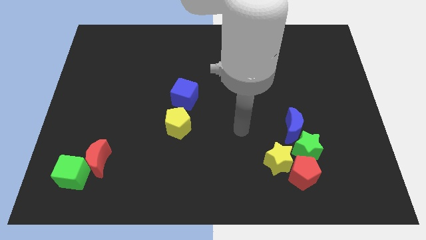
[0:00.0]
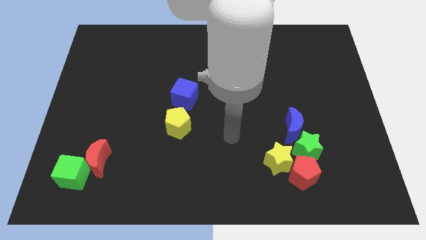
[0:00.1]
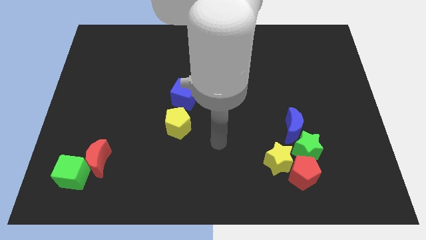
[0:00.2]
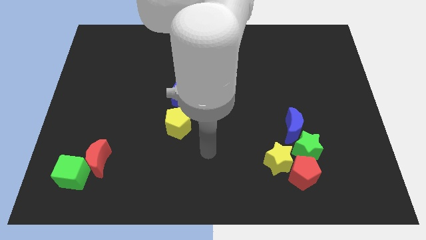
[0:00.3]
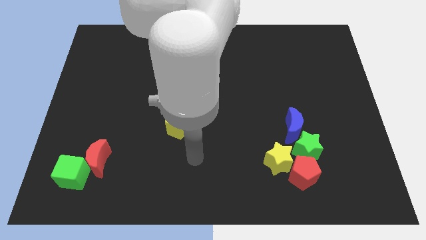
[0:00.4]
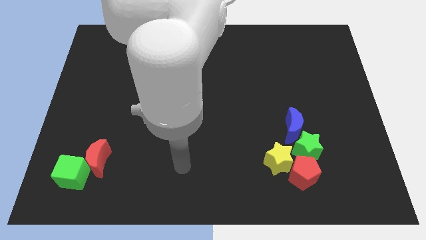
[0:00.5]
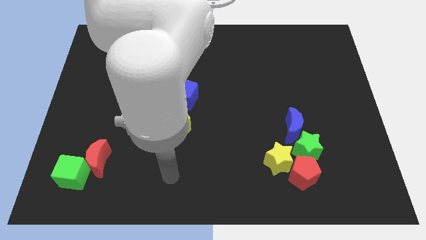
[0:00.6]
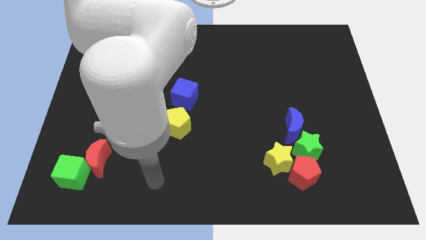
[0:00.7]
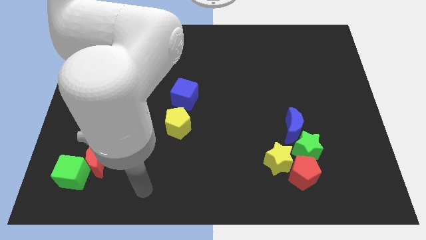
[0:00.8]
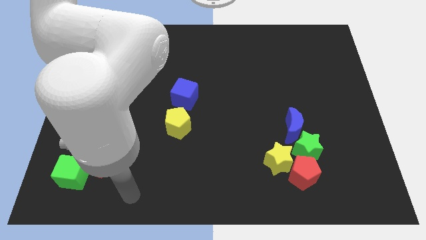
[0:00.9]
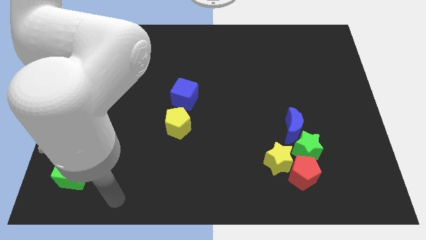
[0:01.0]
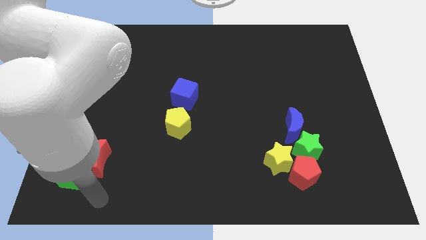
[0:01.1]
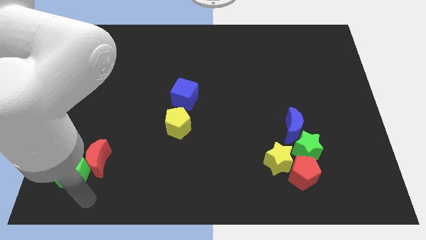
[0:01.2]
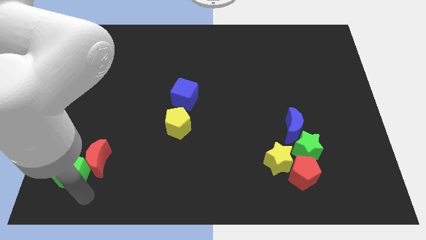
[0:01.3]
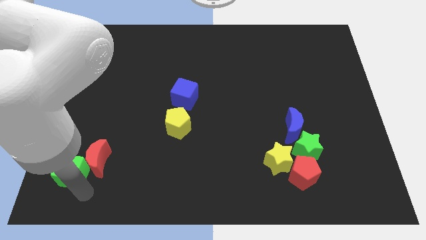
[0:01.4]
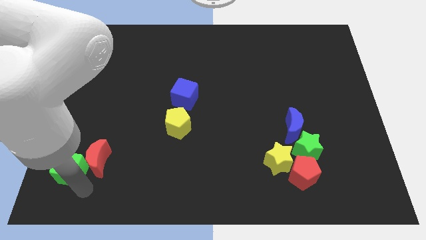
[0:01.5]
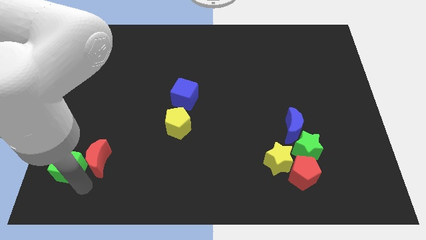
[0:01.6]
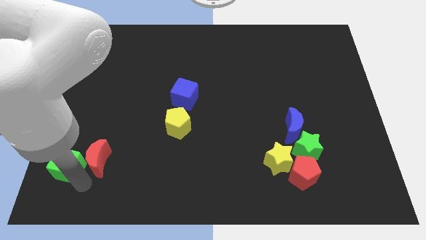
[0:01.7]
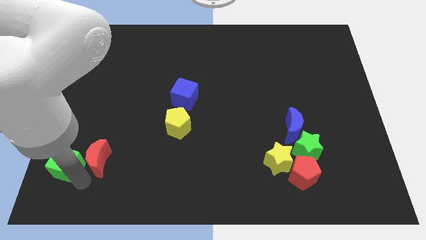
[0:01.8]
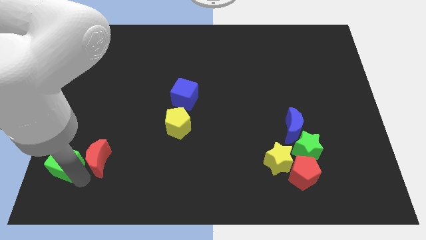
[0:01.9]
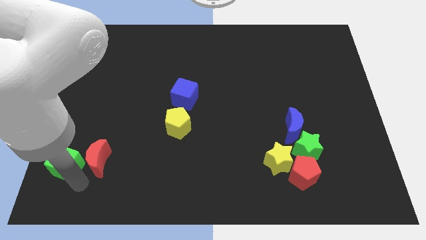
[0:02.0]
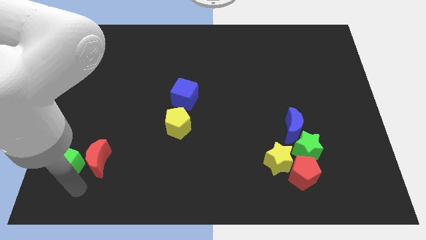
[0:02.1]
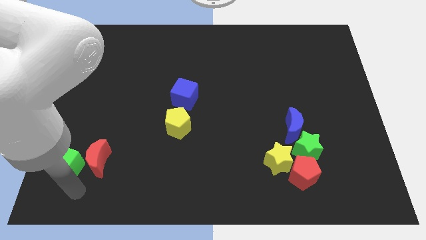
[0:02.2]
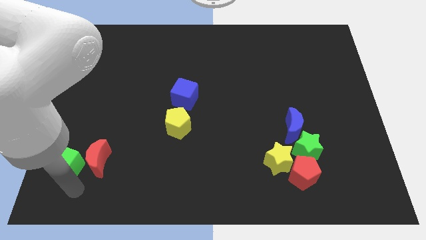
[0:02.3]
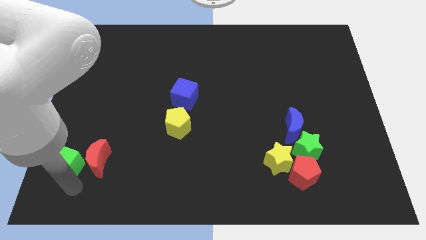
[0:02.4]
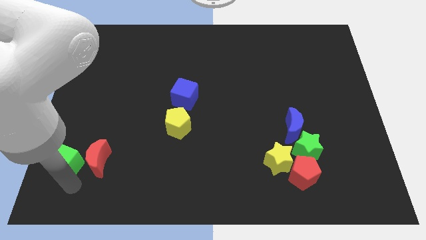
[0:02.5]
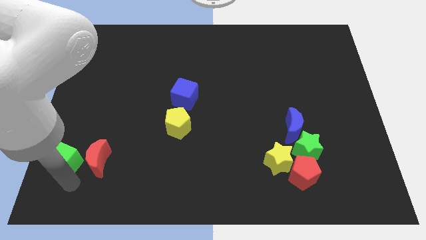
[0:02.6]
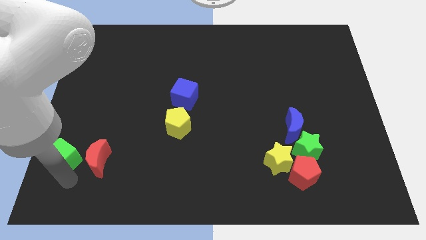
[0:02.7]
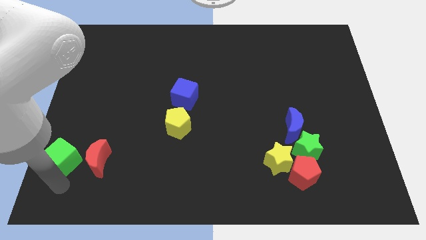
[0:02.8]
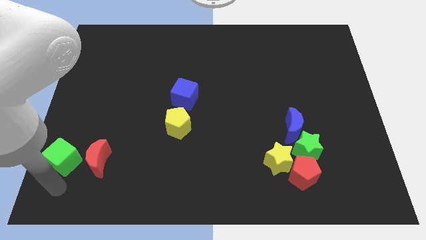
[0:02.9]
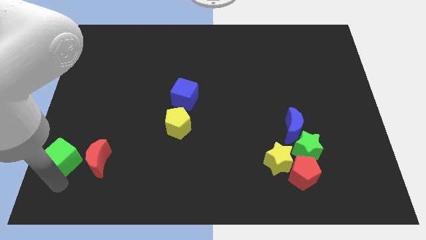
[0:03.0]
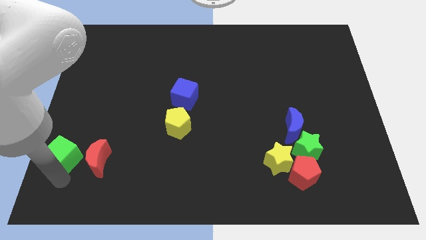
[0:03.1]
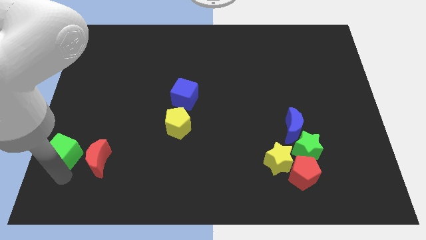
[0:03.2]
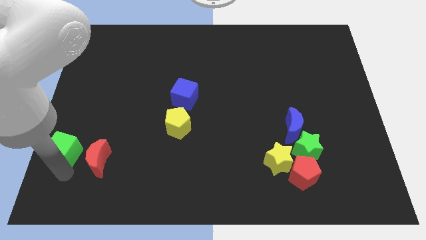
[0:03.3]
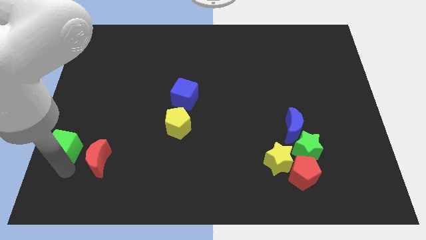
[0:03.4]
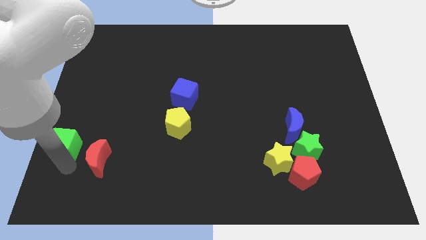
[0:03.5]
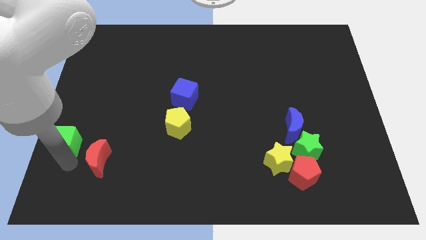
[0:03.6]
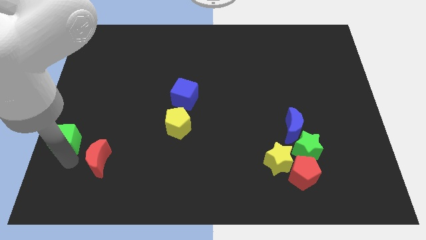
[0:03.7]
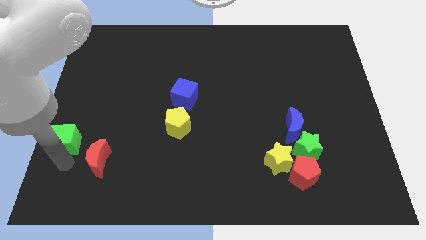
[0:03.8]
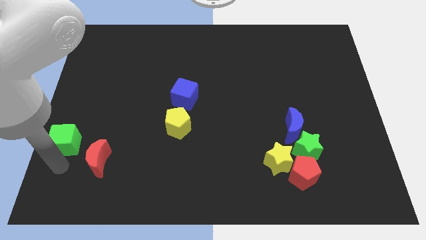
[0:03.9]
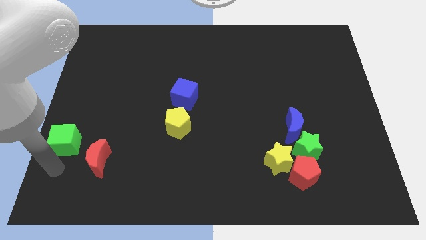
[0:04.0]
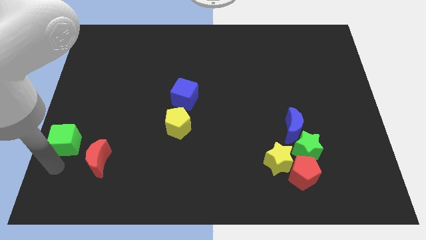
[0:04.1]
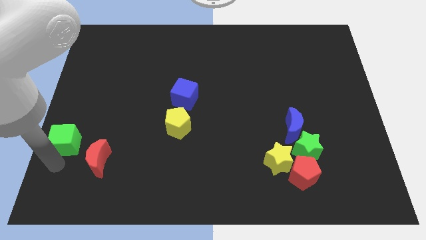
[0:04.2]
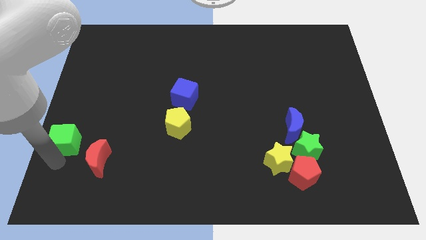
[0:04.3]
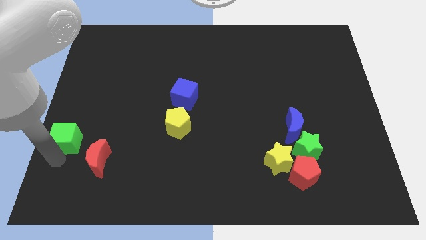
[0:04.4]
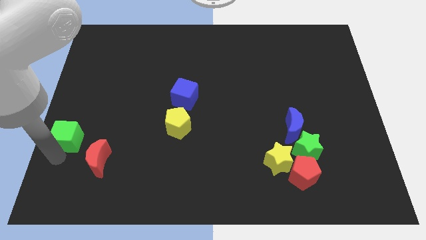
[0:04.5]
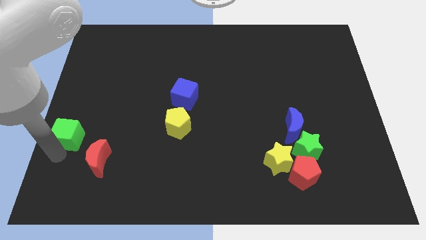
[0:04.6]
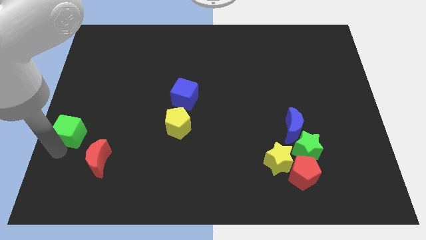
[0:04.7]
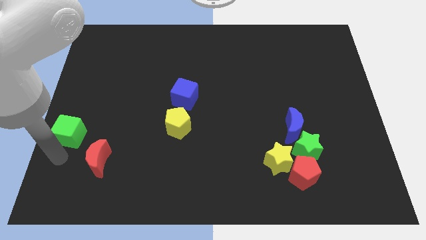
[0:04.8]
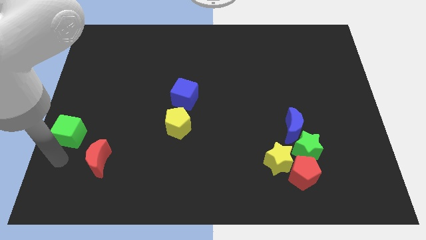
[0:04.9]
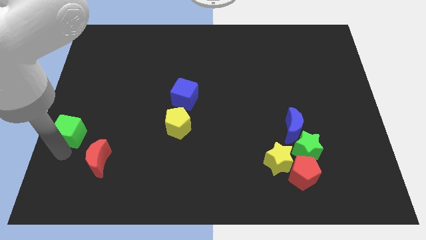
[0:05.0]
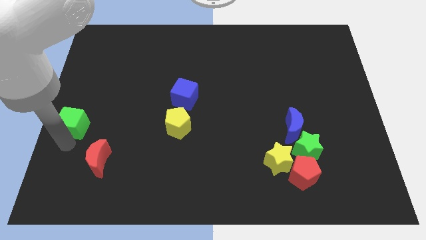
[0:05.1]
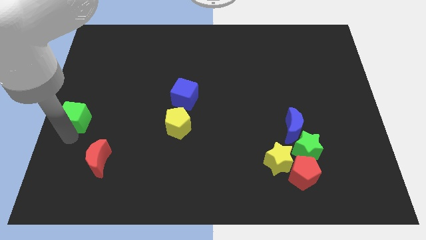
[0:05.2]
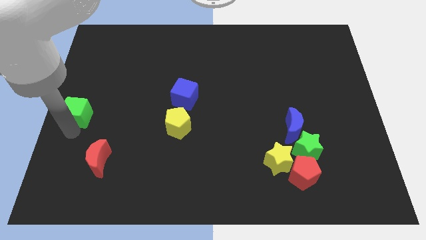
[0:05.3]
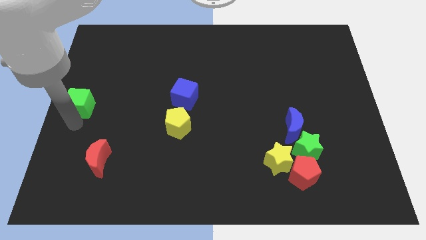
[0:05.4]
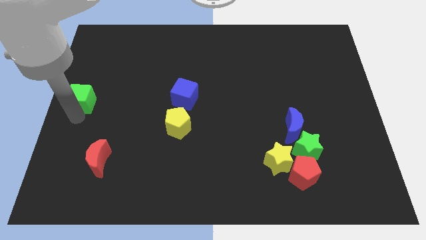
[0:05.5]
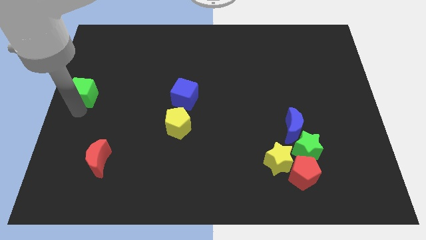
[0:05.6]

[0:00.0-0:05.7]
push the green cube upwards

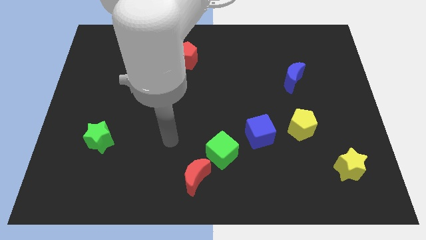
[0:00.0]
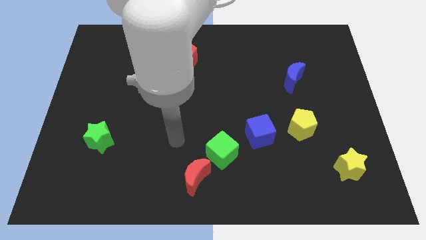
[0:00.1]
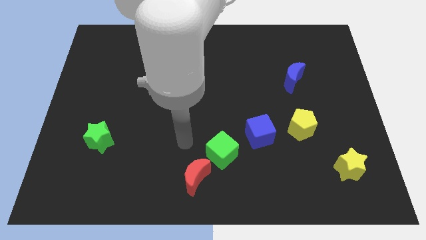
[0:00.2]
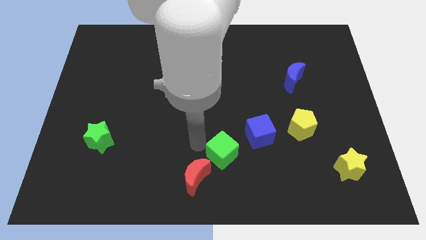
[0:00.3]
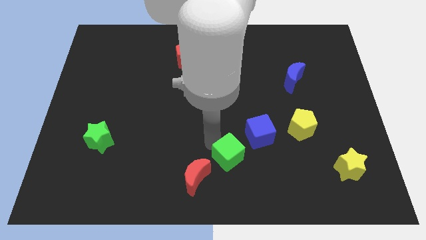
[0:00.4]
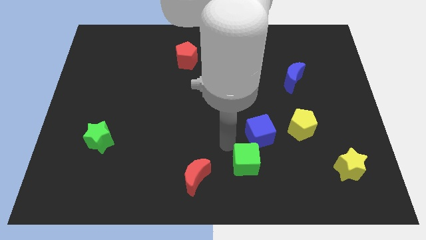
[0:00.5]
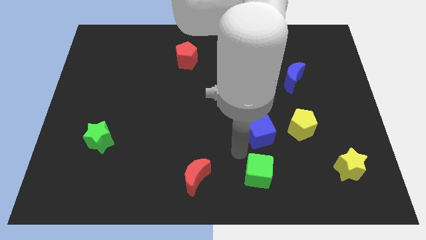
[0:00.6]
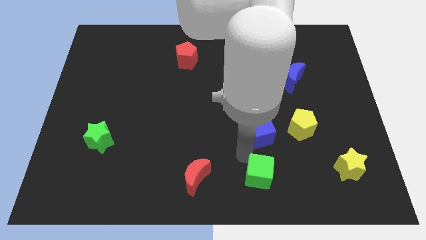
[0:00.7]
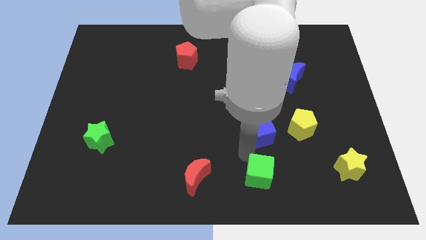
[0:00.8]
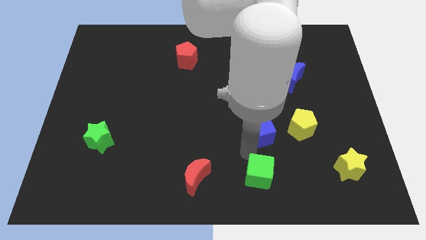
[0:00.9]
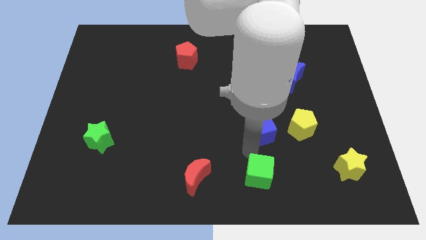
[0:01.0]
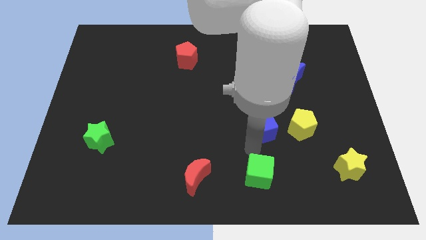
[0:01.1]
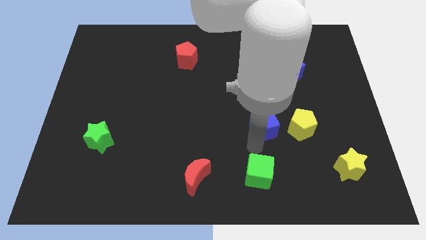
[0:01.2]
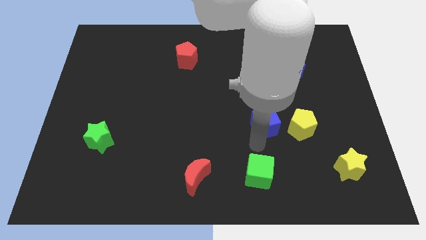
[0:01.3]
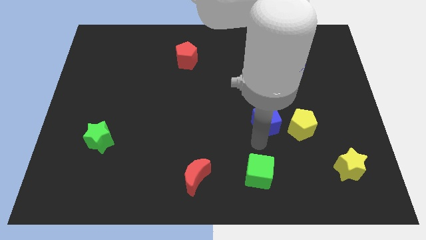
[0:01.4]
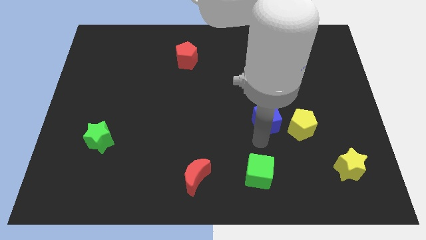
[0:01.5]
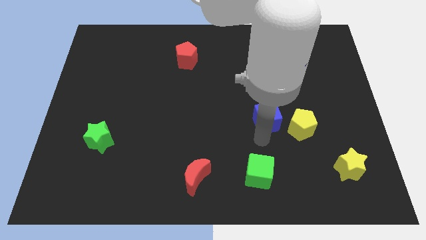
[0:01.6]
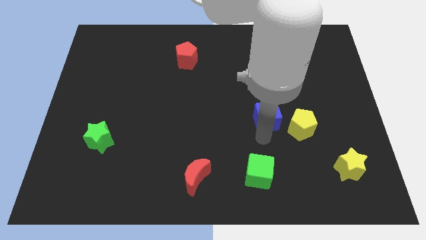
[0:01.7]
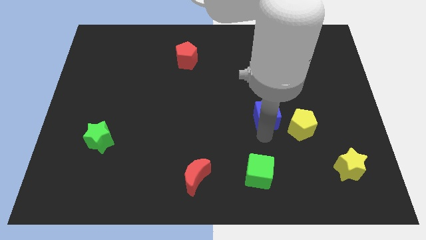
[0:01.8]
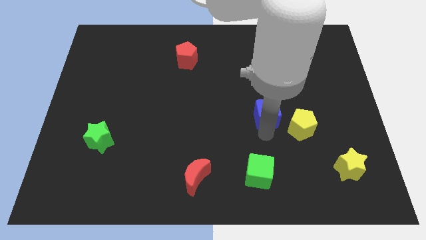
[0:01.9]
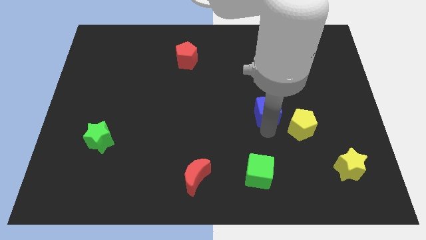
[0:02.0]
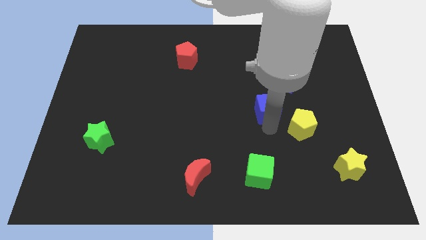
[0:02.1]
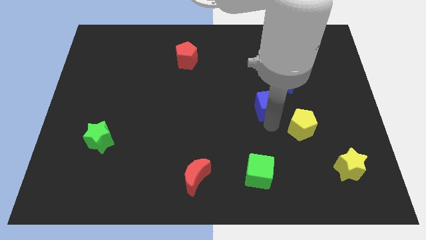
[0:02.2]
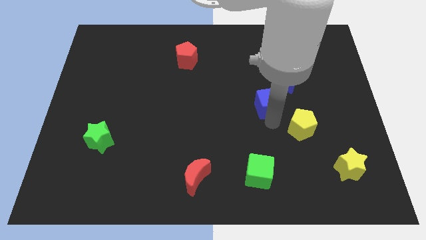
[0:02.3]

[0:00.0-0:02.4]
slightly slide the blue cube diagonally upwards and to the right
